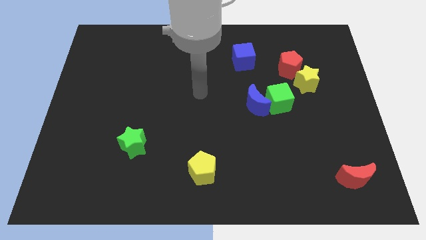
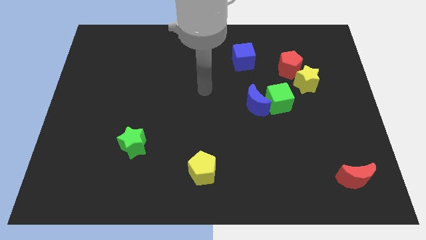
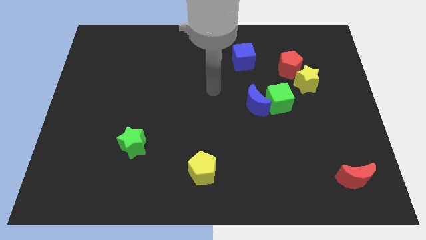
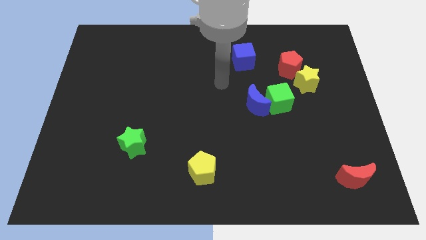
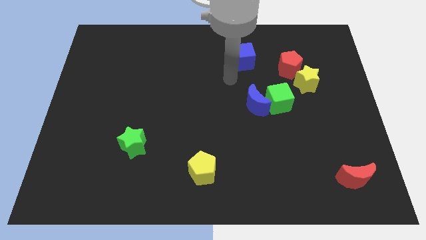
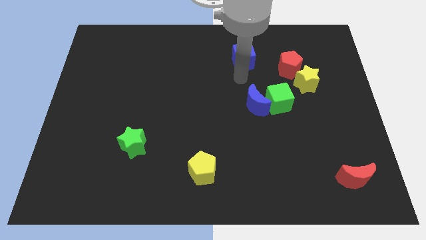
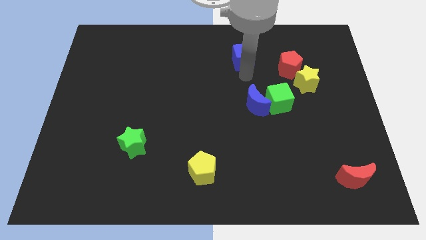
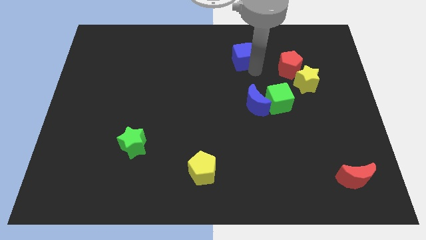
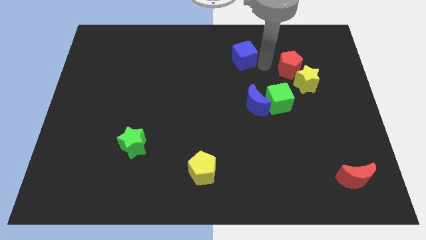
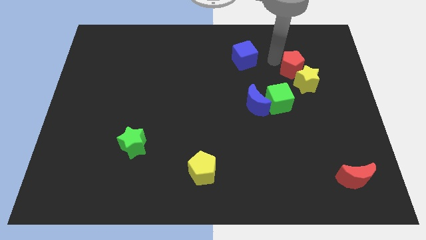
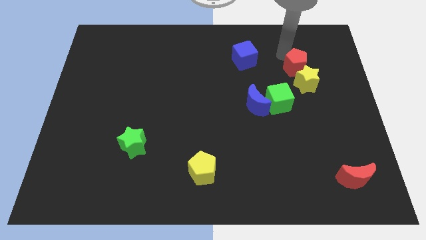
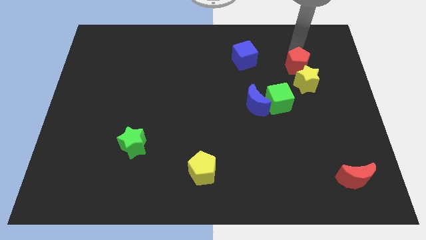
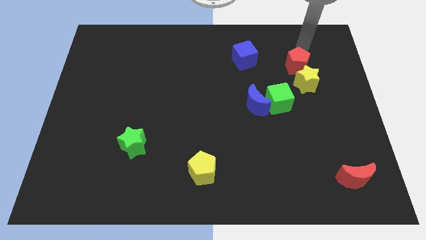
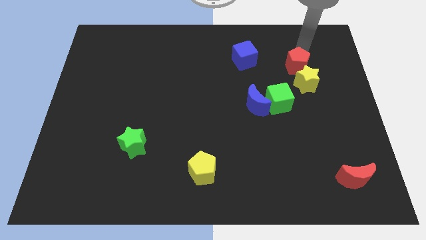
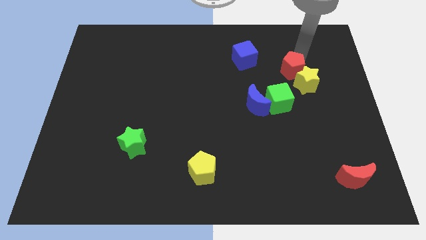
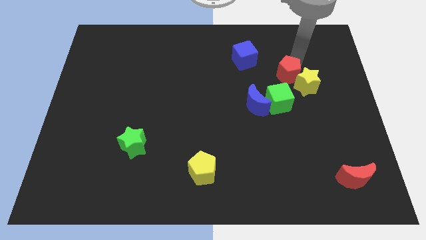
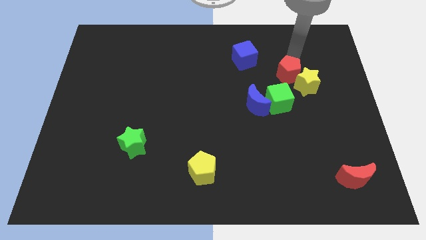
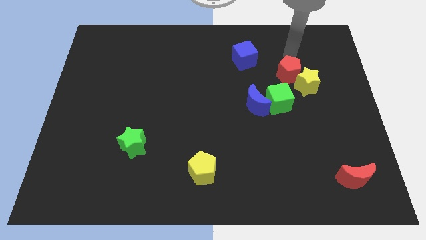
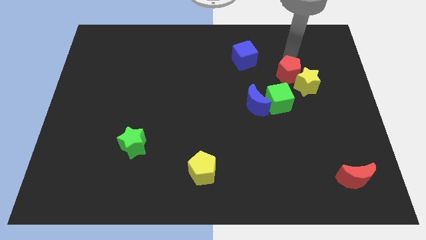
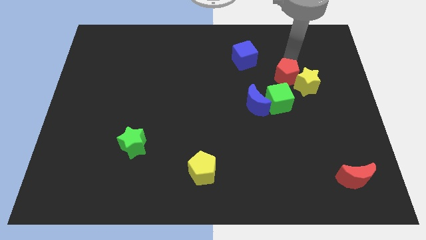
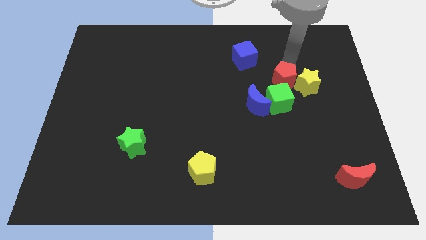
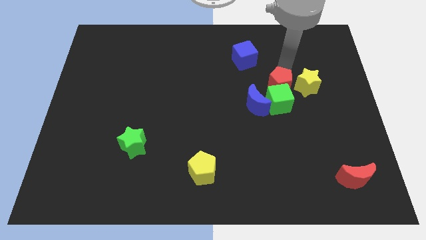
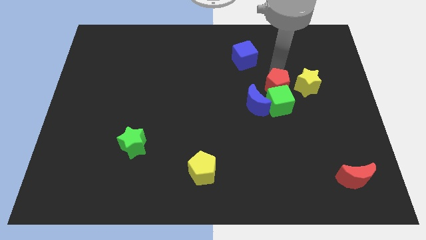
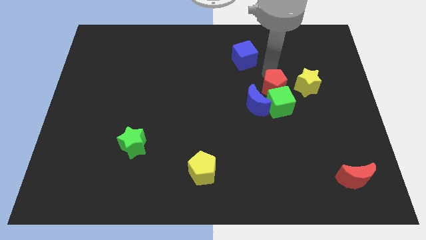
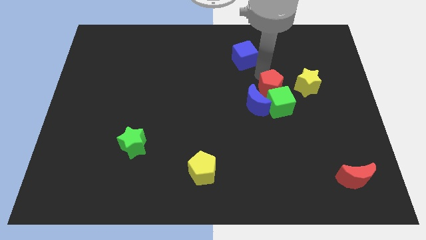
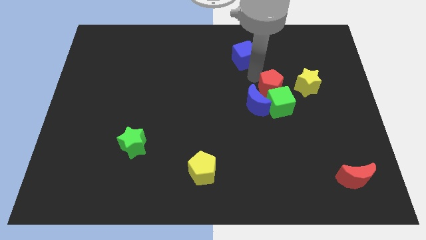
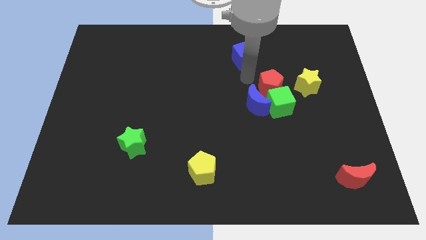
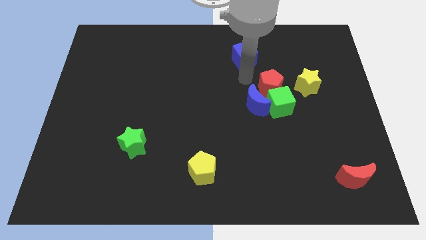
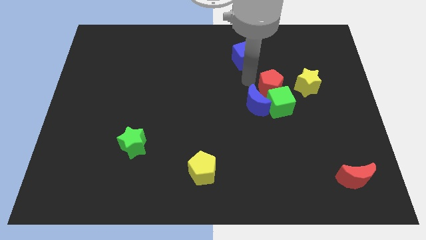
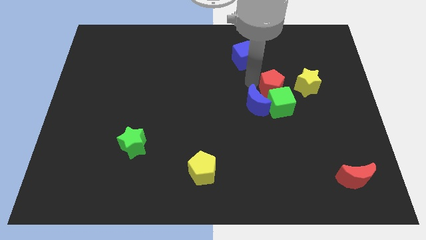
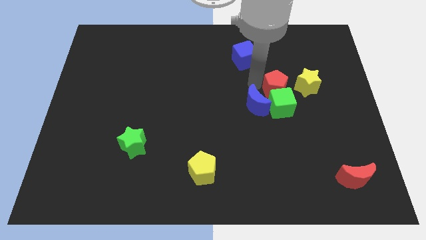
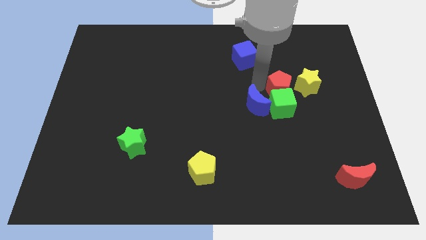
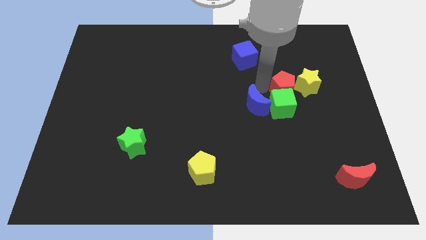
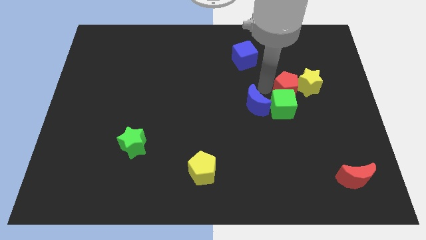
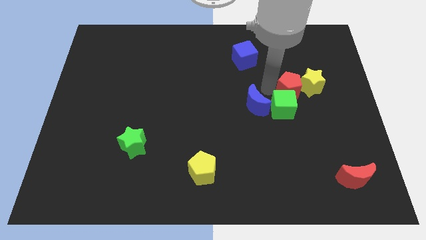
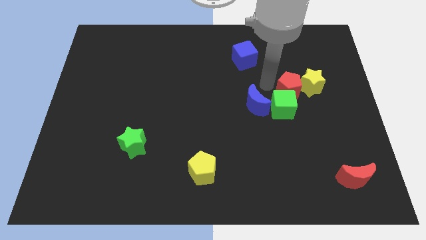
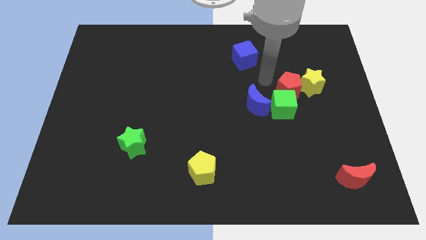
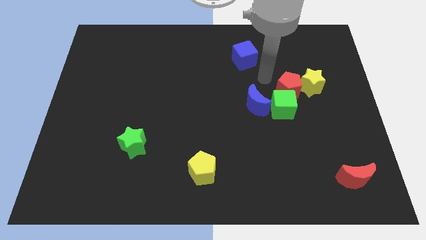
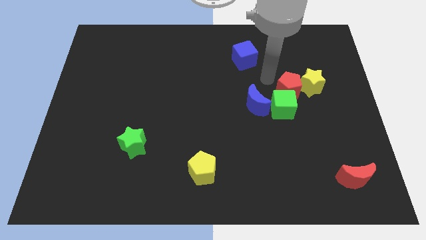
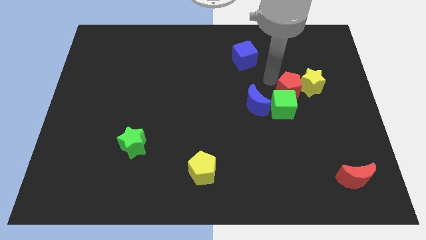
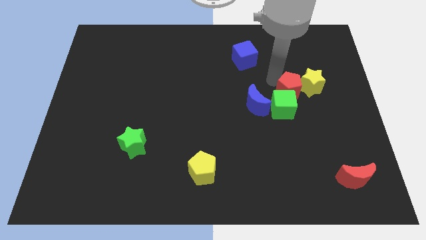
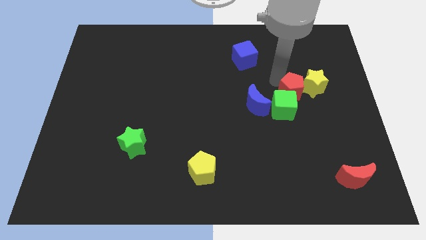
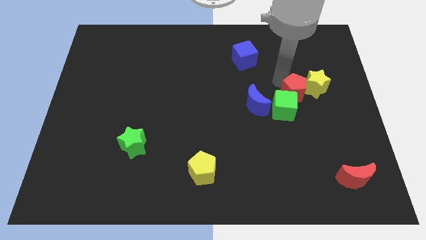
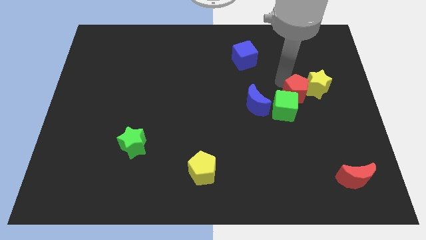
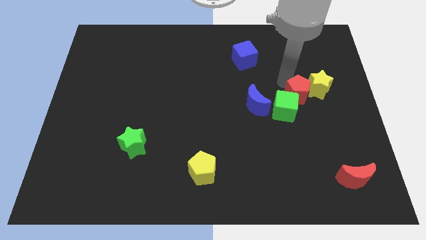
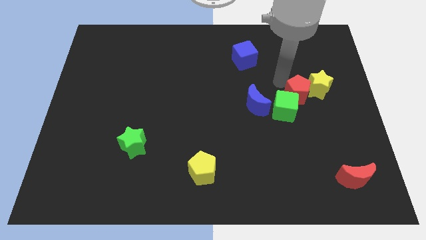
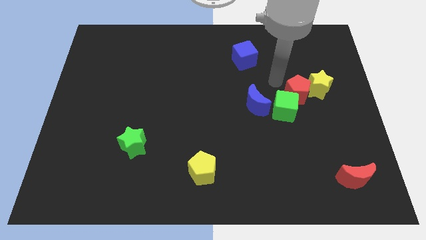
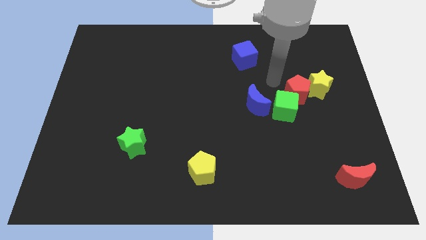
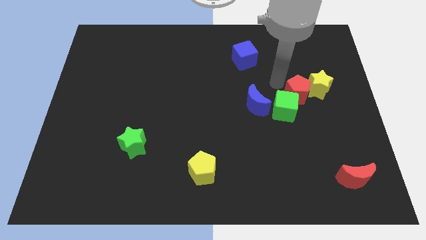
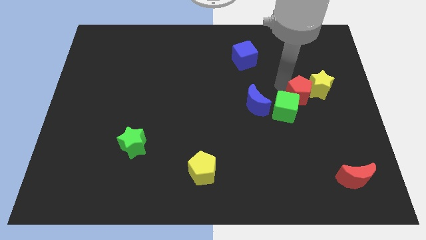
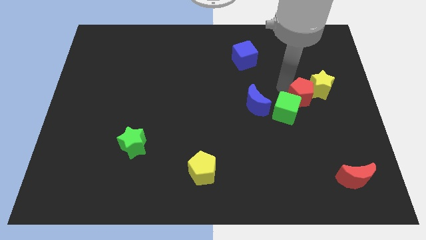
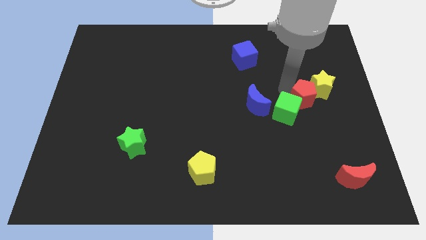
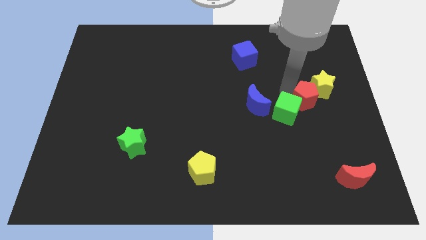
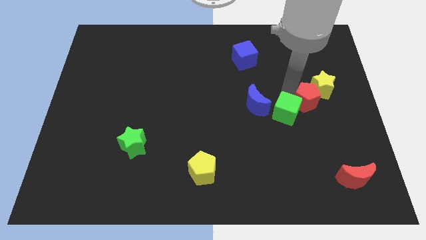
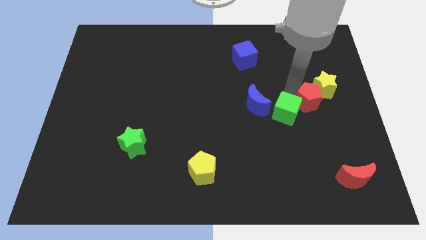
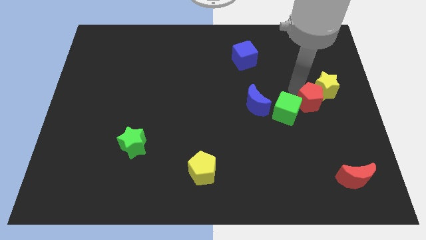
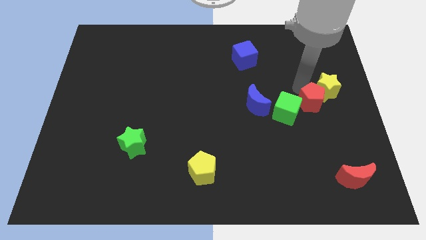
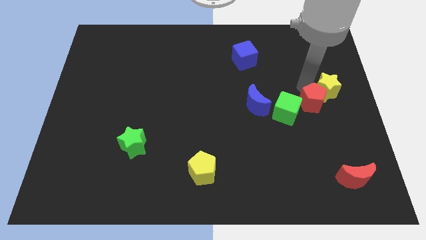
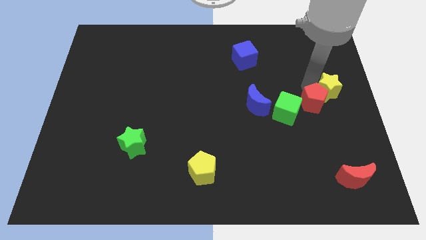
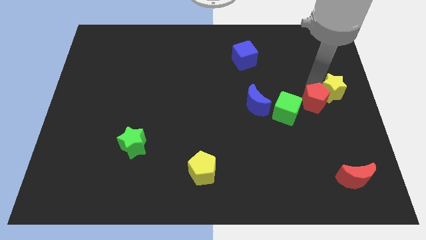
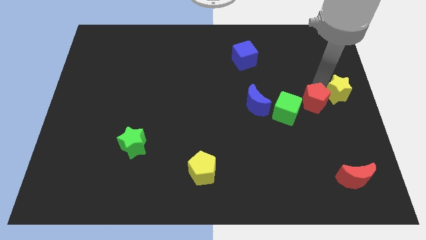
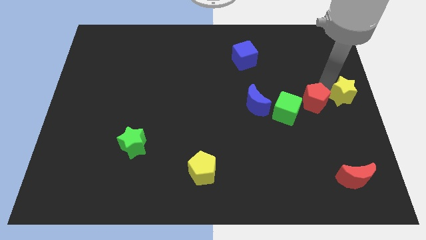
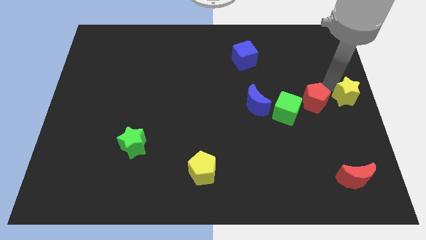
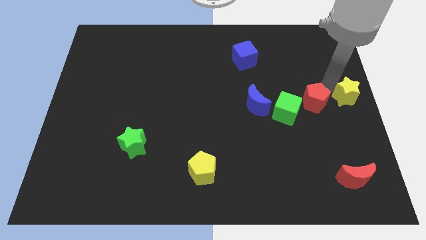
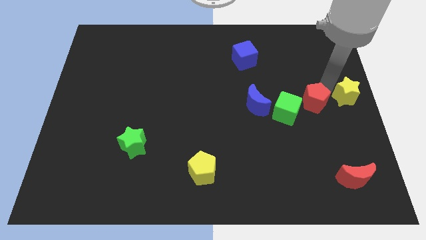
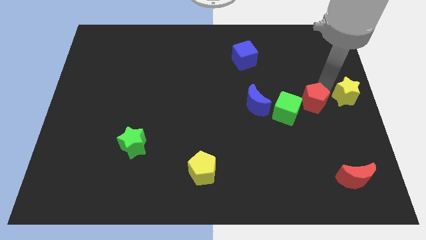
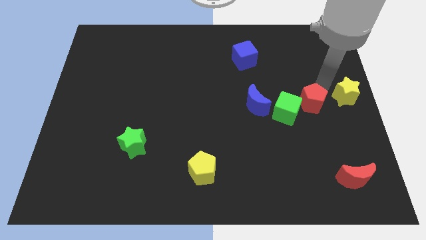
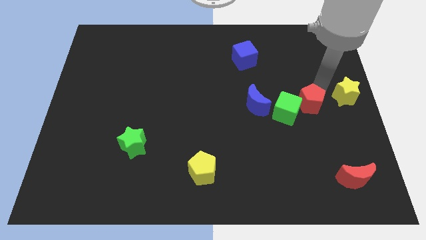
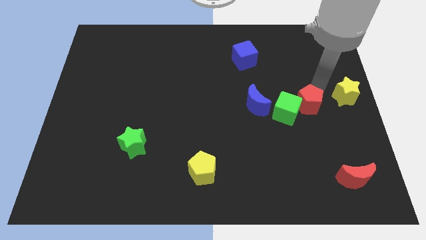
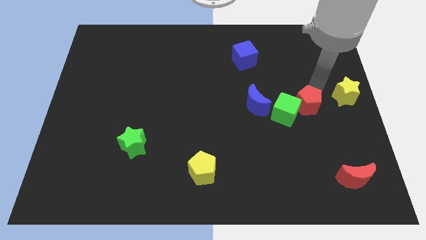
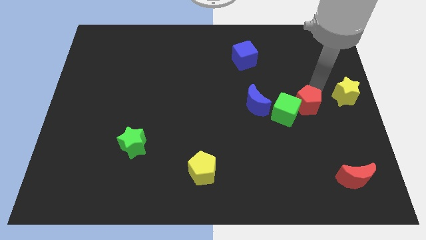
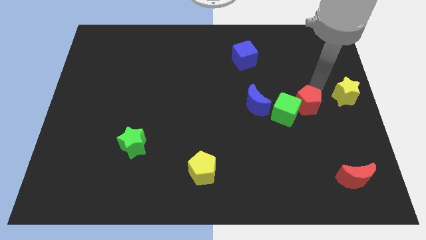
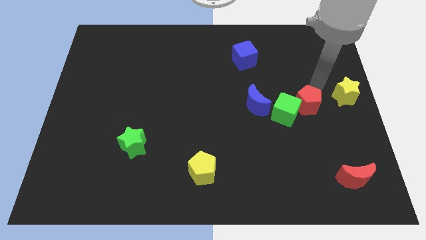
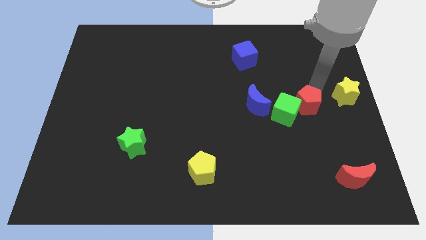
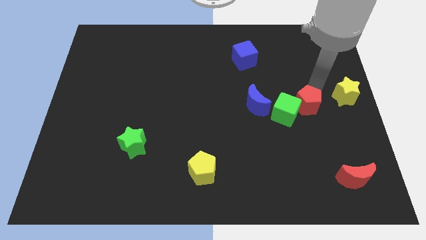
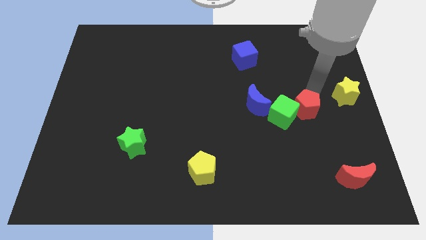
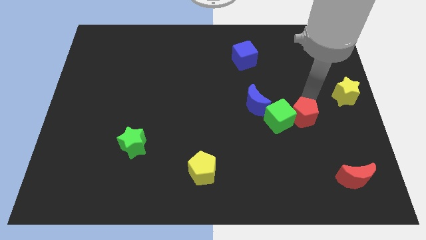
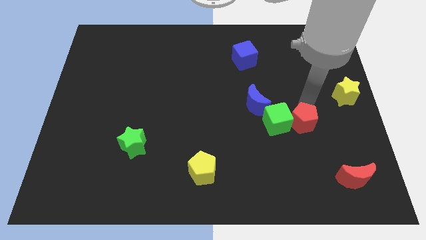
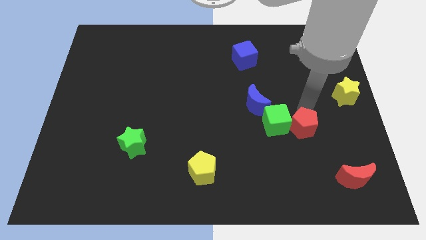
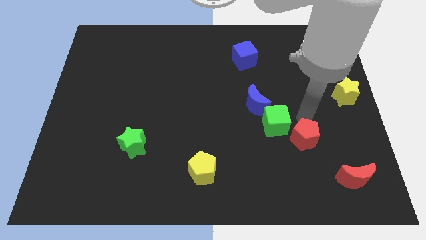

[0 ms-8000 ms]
push the red pentagon downwards
